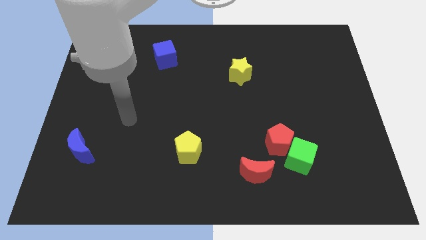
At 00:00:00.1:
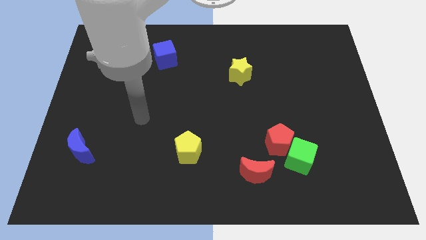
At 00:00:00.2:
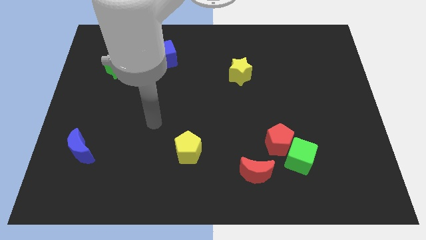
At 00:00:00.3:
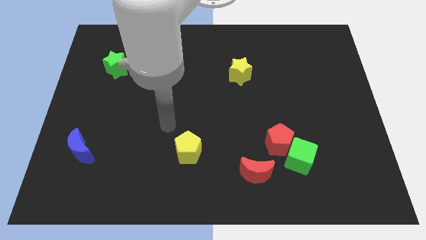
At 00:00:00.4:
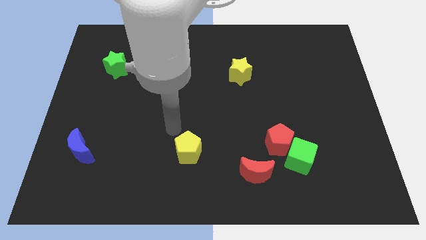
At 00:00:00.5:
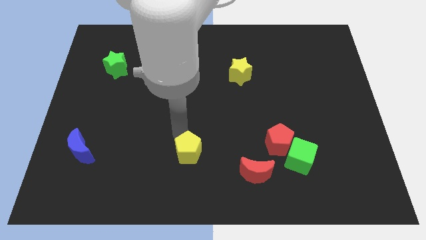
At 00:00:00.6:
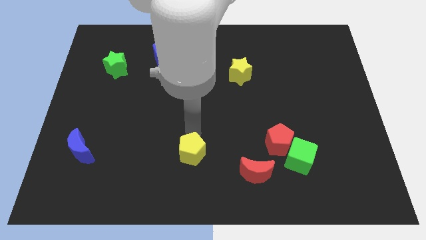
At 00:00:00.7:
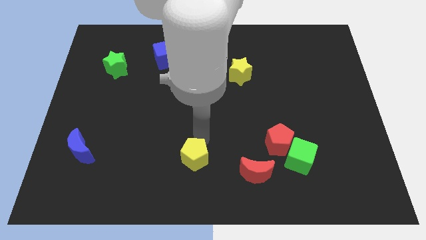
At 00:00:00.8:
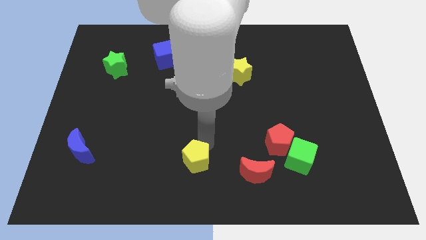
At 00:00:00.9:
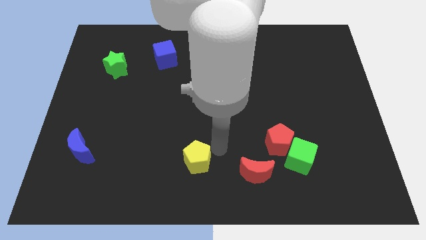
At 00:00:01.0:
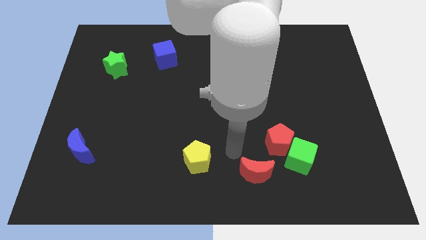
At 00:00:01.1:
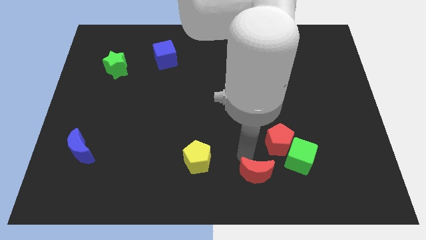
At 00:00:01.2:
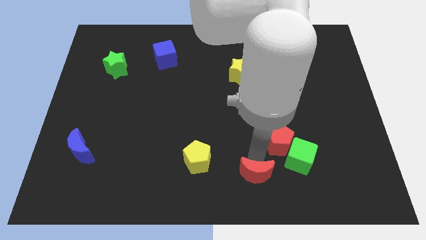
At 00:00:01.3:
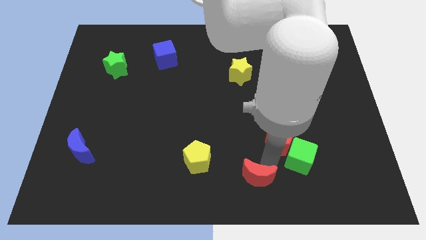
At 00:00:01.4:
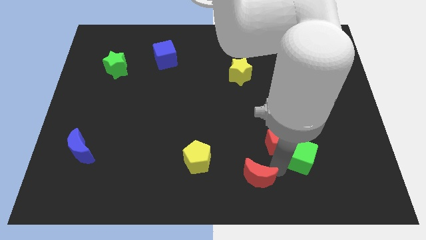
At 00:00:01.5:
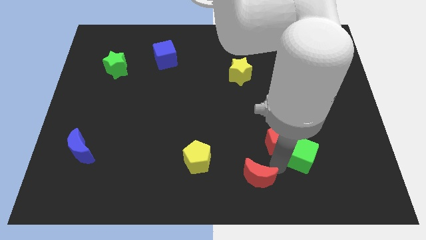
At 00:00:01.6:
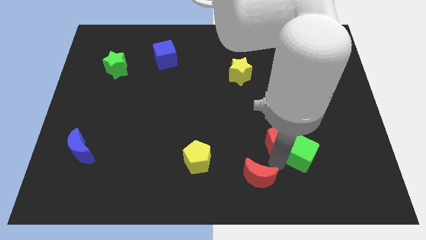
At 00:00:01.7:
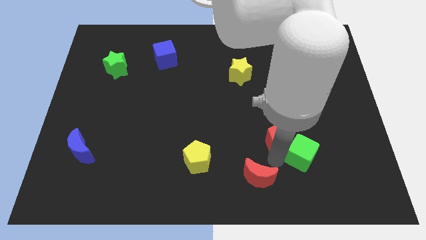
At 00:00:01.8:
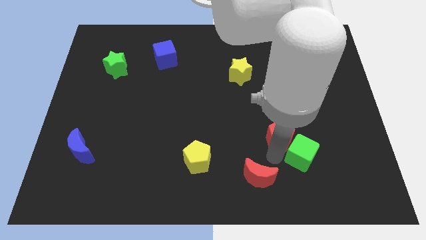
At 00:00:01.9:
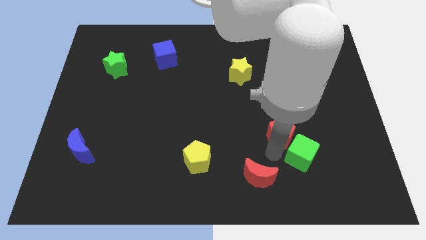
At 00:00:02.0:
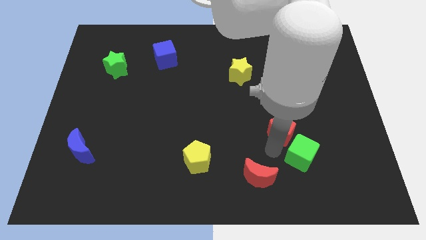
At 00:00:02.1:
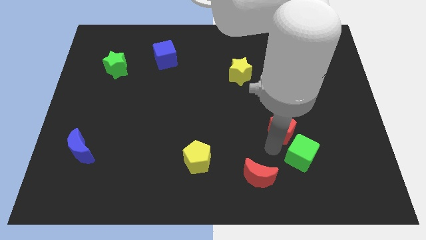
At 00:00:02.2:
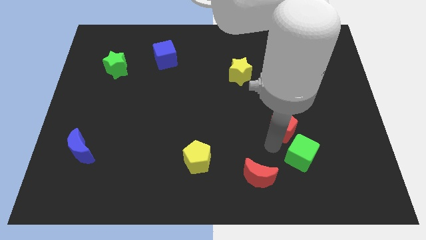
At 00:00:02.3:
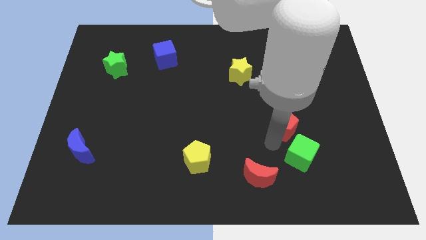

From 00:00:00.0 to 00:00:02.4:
separate the red pentagon from the green cube and red moon

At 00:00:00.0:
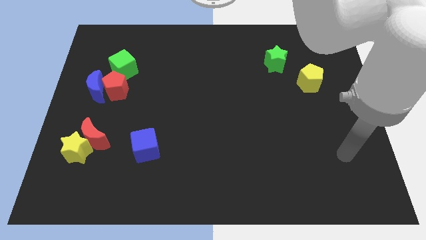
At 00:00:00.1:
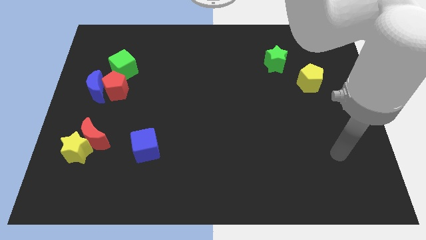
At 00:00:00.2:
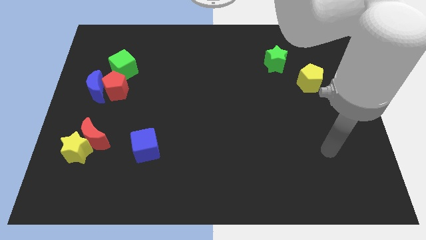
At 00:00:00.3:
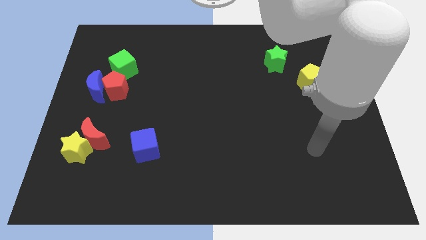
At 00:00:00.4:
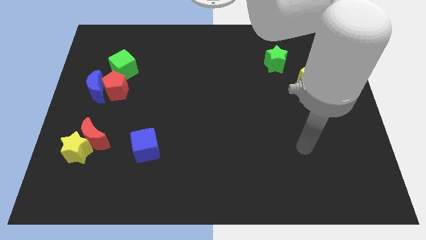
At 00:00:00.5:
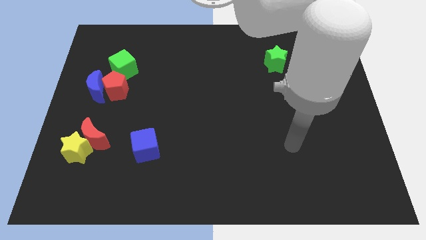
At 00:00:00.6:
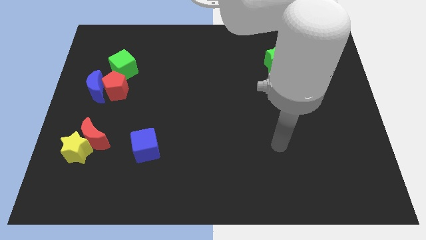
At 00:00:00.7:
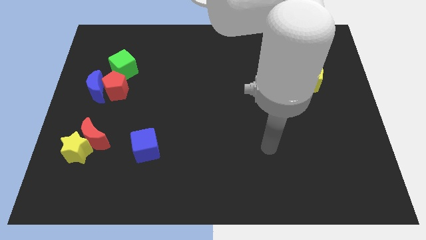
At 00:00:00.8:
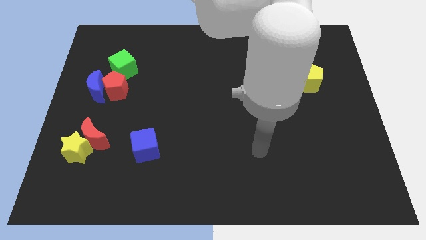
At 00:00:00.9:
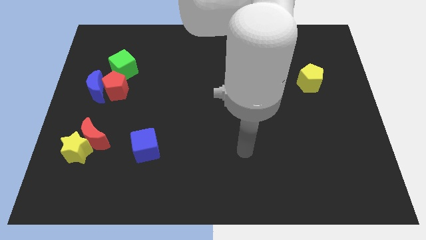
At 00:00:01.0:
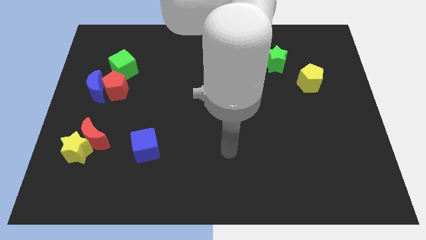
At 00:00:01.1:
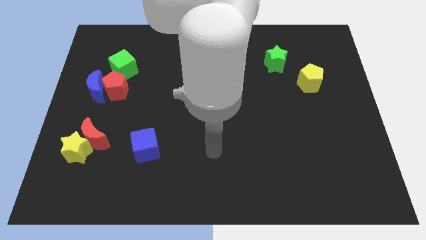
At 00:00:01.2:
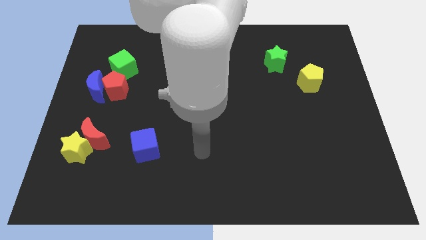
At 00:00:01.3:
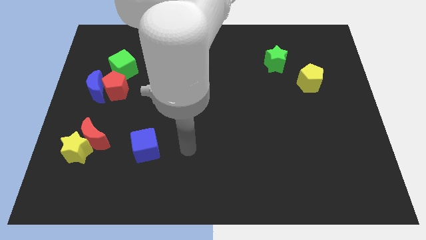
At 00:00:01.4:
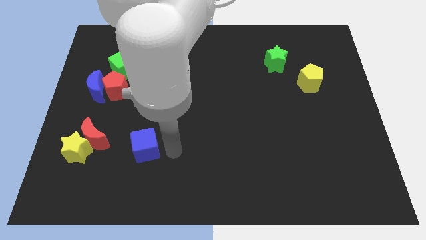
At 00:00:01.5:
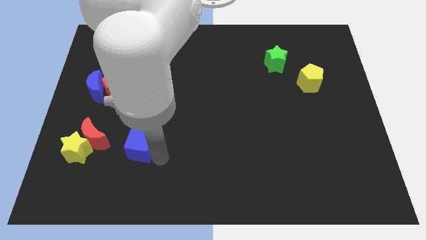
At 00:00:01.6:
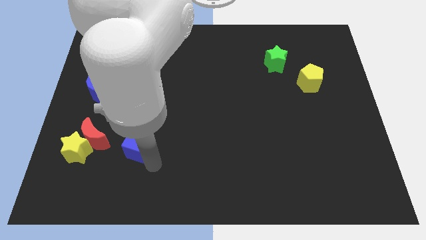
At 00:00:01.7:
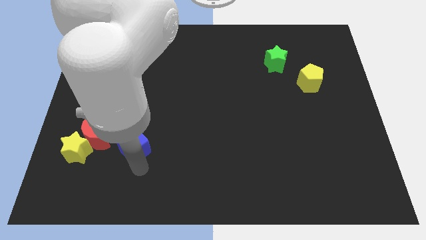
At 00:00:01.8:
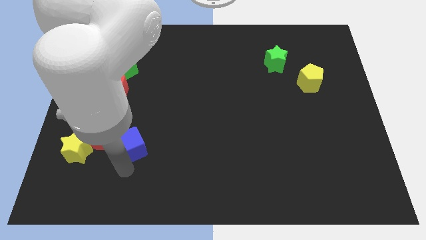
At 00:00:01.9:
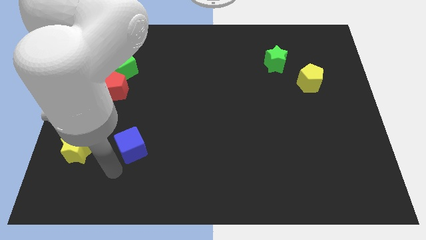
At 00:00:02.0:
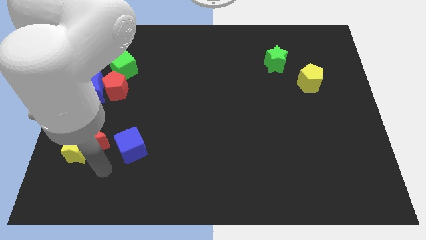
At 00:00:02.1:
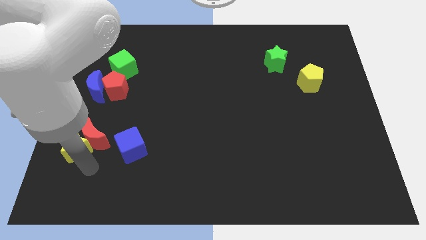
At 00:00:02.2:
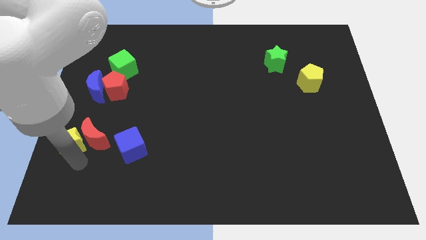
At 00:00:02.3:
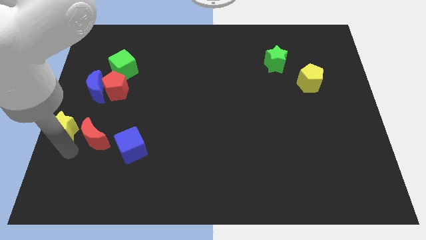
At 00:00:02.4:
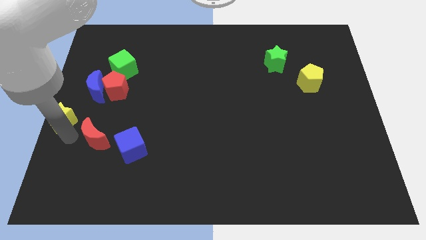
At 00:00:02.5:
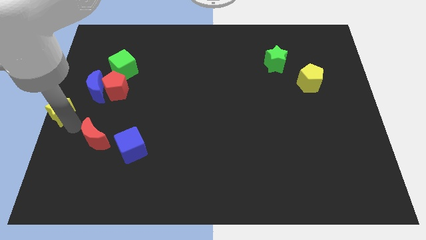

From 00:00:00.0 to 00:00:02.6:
move the red moon away from the yellow star

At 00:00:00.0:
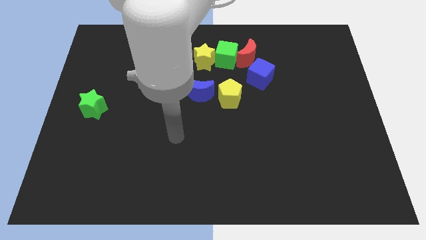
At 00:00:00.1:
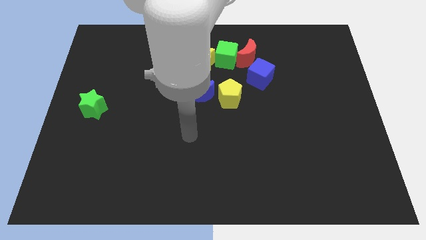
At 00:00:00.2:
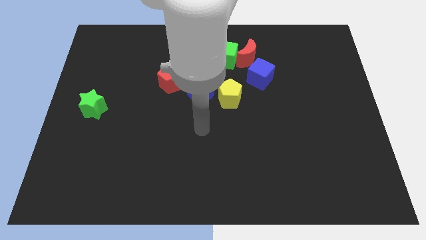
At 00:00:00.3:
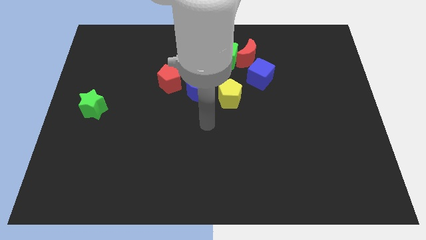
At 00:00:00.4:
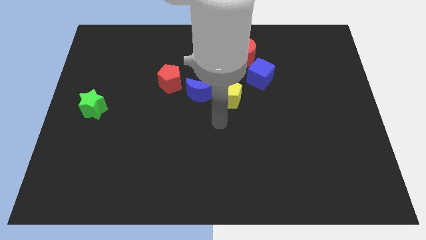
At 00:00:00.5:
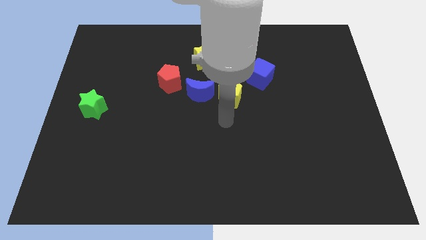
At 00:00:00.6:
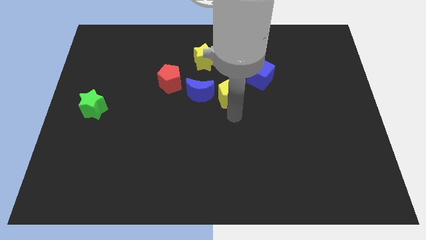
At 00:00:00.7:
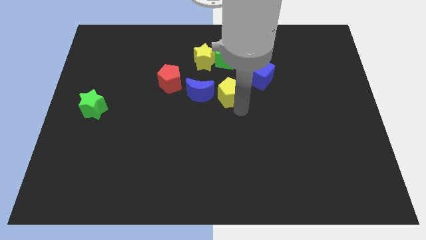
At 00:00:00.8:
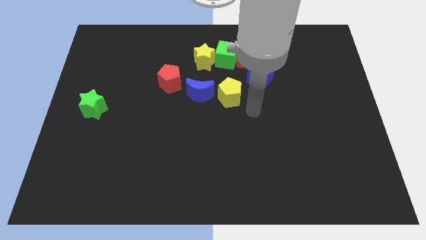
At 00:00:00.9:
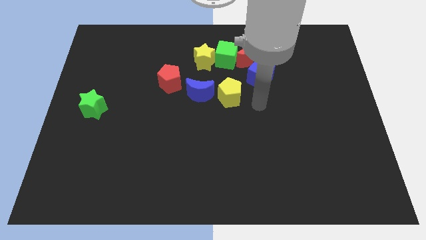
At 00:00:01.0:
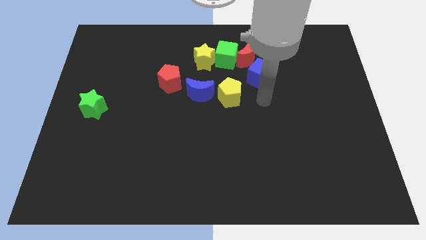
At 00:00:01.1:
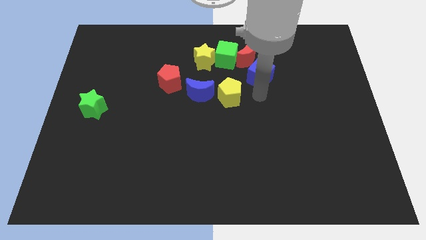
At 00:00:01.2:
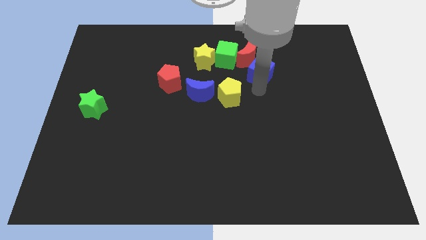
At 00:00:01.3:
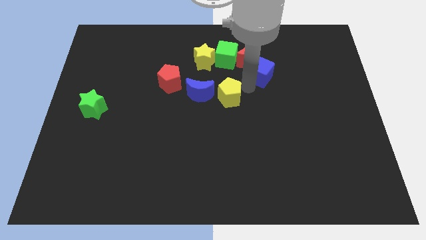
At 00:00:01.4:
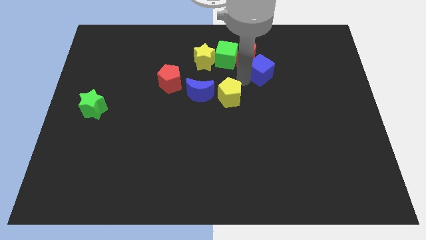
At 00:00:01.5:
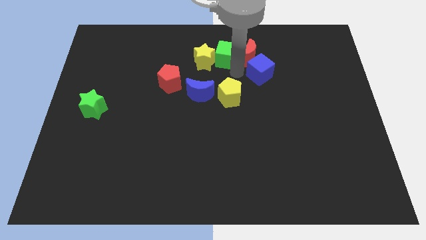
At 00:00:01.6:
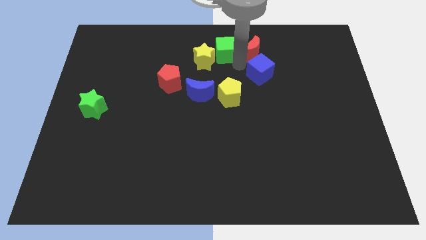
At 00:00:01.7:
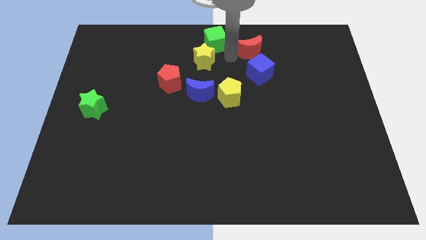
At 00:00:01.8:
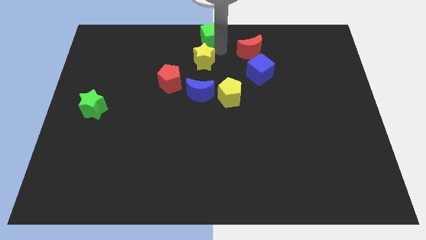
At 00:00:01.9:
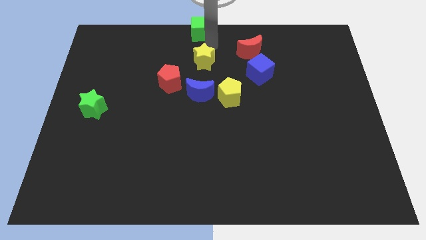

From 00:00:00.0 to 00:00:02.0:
move the yellow star away from the green cube

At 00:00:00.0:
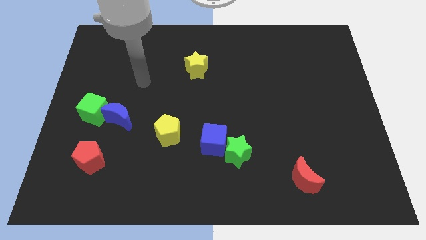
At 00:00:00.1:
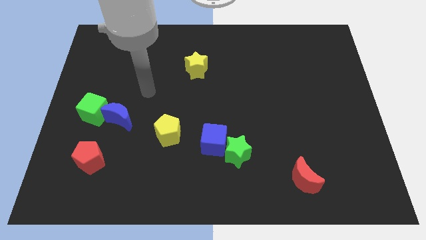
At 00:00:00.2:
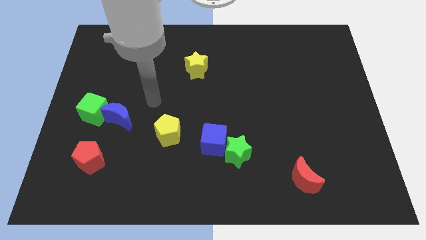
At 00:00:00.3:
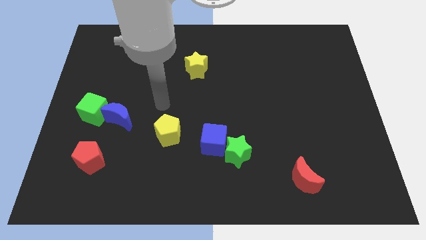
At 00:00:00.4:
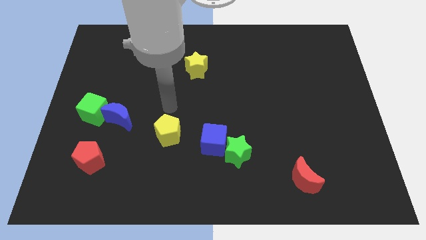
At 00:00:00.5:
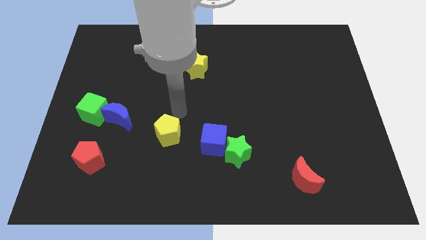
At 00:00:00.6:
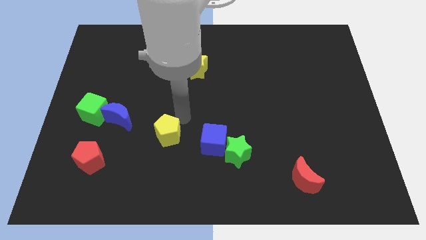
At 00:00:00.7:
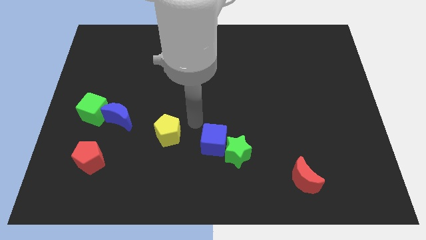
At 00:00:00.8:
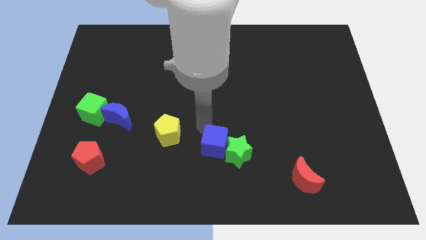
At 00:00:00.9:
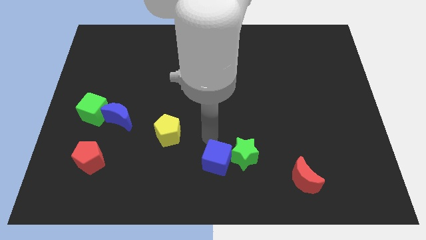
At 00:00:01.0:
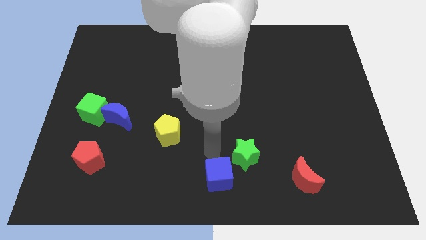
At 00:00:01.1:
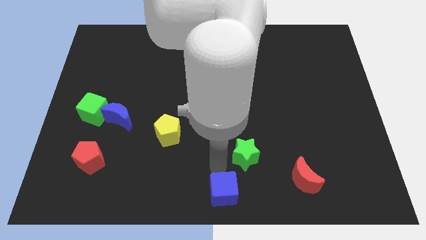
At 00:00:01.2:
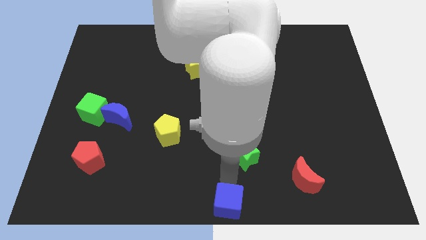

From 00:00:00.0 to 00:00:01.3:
move the green star away from the blue cube

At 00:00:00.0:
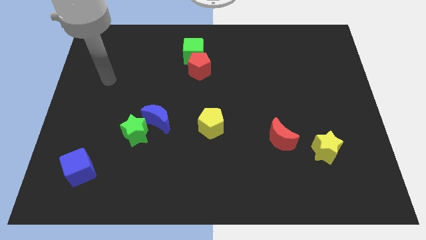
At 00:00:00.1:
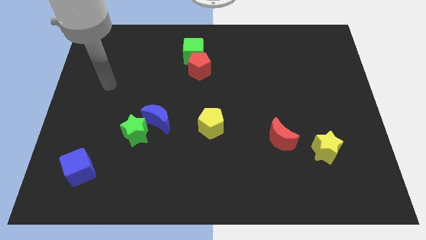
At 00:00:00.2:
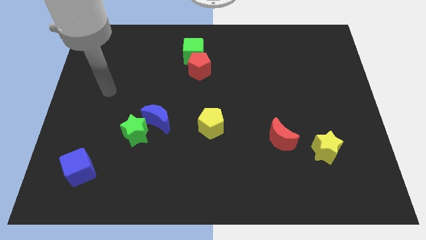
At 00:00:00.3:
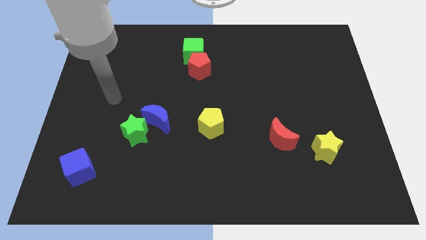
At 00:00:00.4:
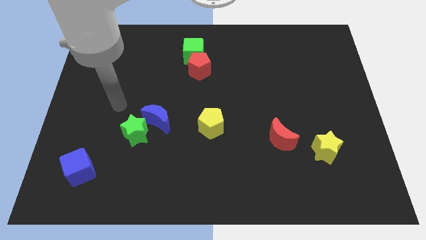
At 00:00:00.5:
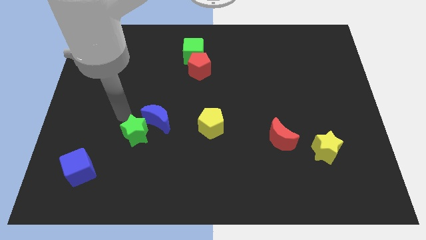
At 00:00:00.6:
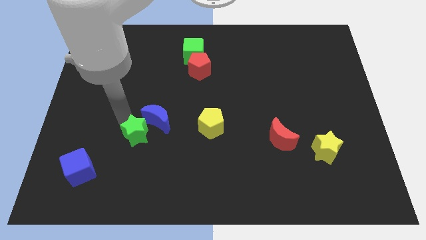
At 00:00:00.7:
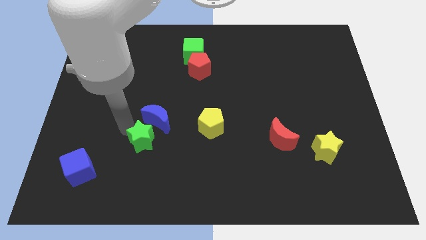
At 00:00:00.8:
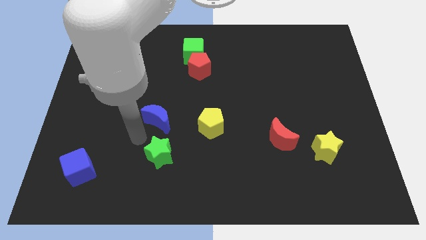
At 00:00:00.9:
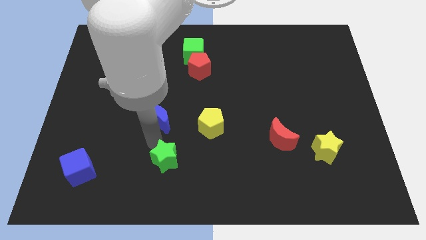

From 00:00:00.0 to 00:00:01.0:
separate the blue moon from the green star
